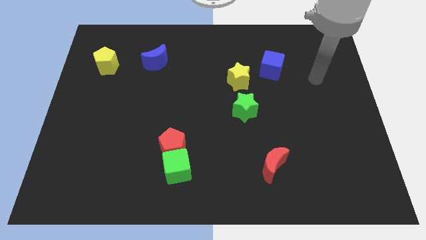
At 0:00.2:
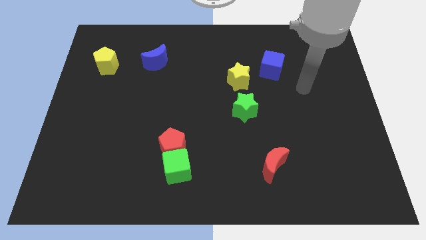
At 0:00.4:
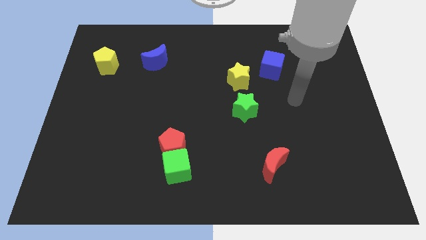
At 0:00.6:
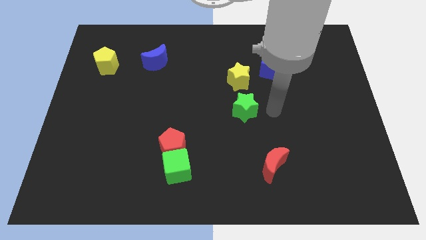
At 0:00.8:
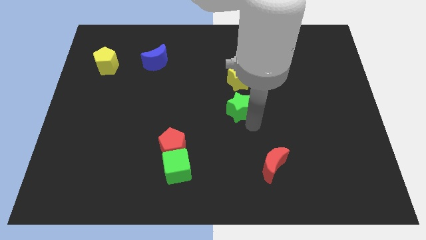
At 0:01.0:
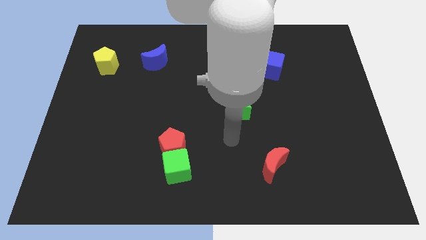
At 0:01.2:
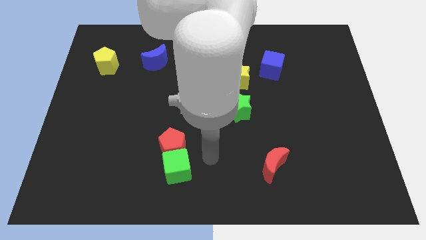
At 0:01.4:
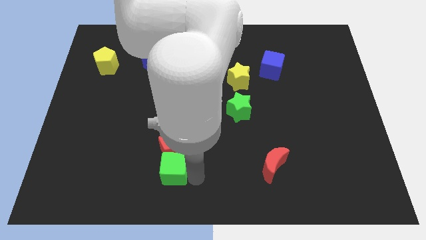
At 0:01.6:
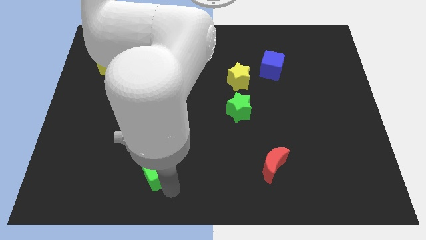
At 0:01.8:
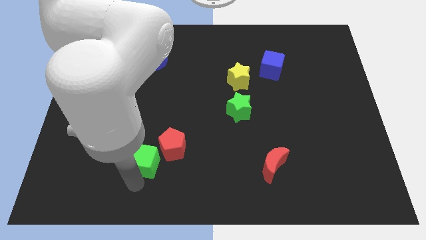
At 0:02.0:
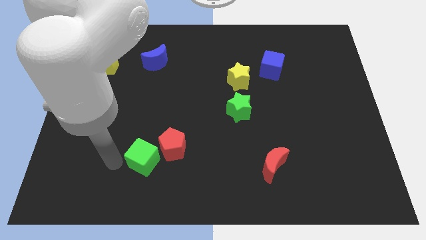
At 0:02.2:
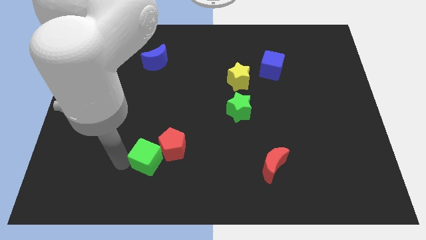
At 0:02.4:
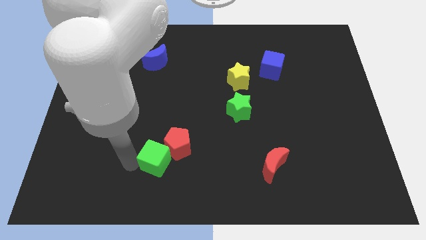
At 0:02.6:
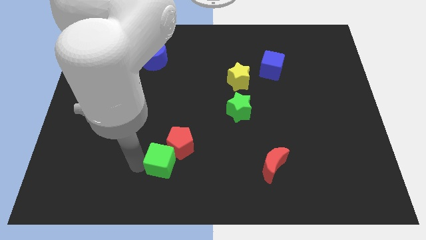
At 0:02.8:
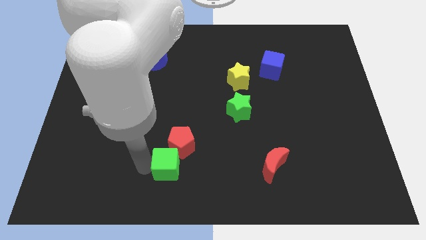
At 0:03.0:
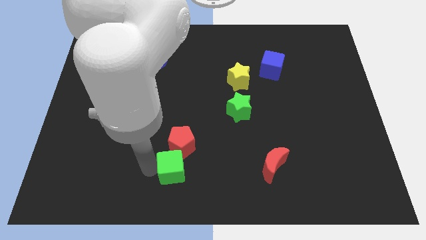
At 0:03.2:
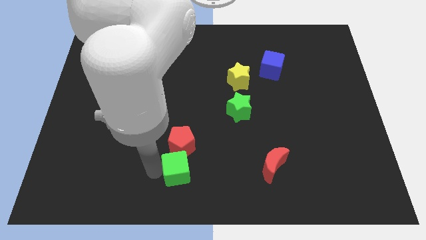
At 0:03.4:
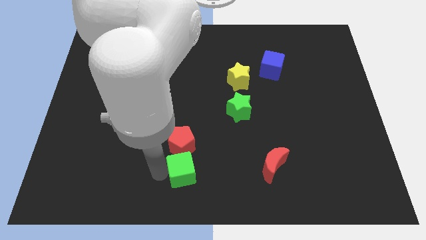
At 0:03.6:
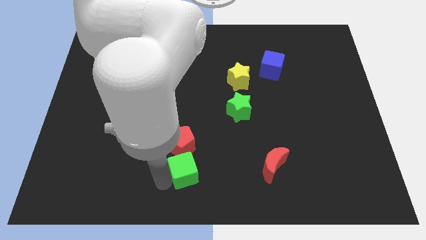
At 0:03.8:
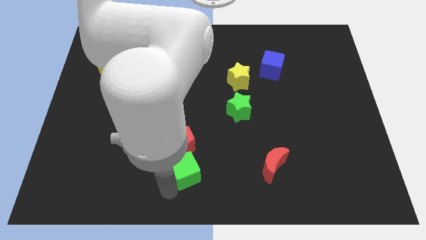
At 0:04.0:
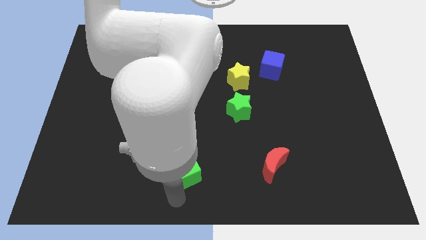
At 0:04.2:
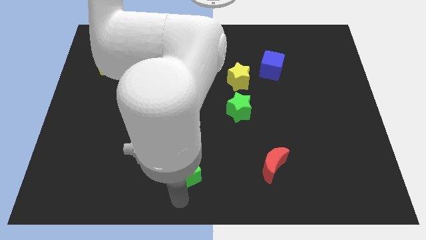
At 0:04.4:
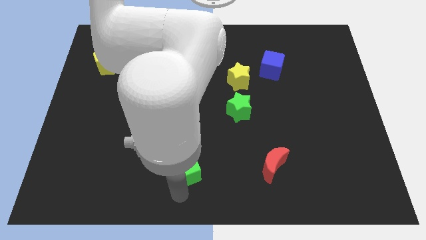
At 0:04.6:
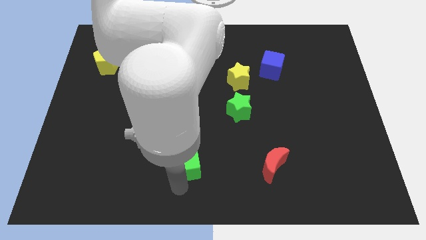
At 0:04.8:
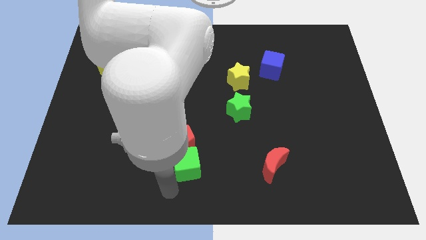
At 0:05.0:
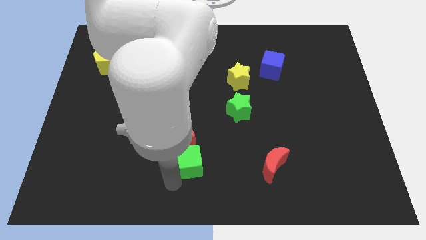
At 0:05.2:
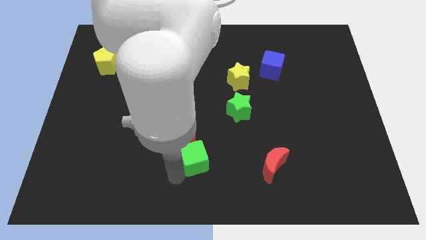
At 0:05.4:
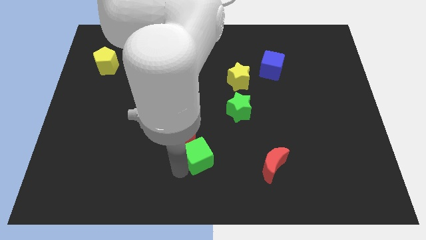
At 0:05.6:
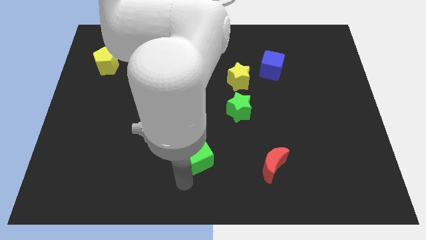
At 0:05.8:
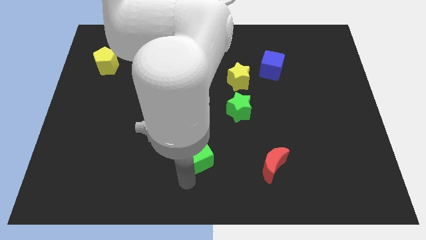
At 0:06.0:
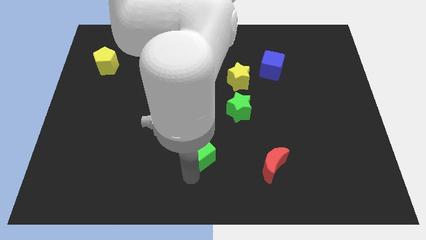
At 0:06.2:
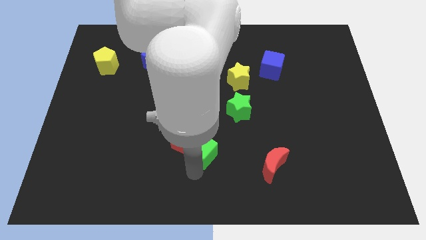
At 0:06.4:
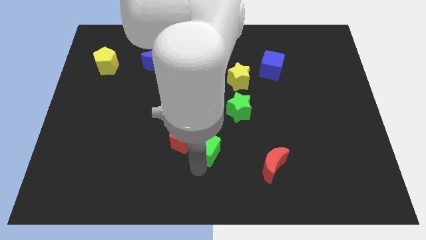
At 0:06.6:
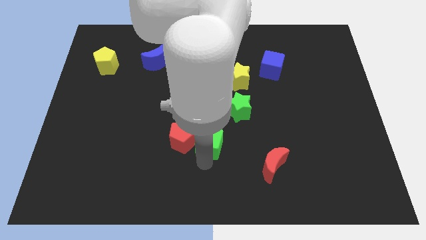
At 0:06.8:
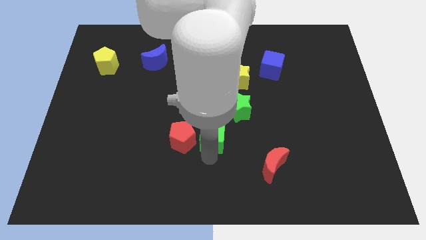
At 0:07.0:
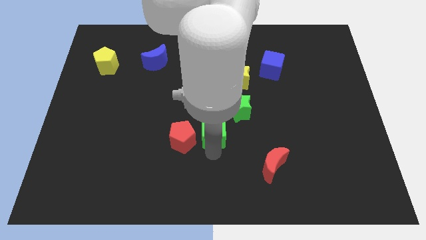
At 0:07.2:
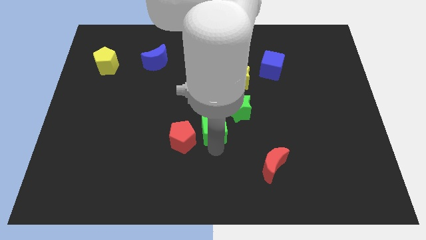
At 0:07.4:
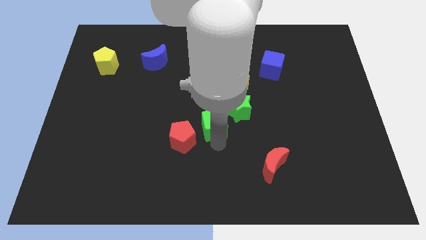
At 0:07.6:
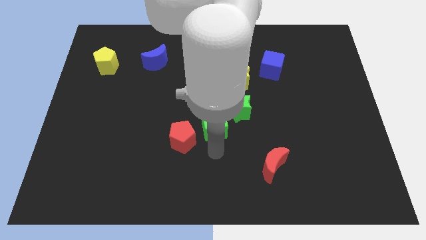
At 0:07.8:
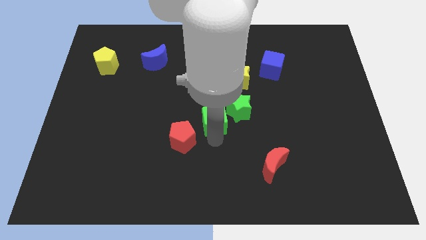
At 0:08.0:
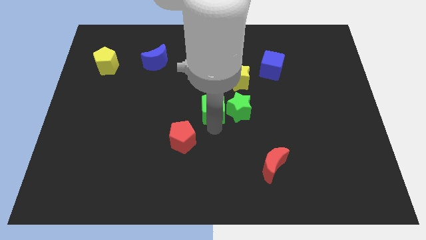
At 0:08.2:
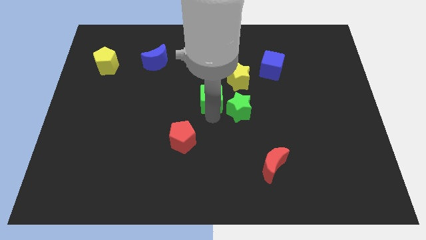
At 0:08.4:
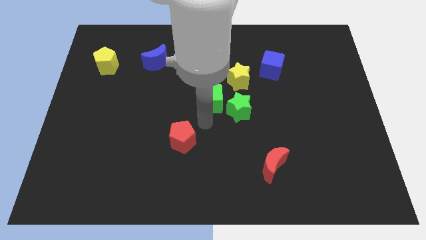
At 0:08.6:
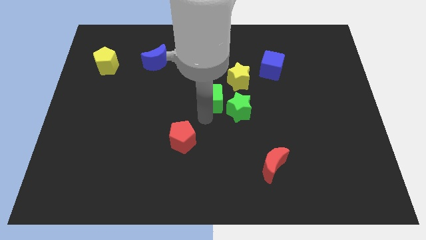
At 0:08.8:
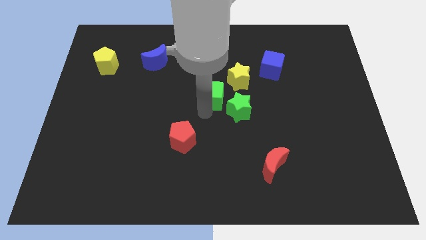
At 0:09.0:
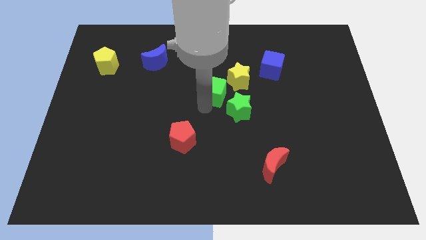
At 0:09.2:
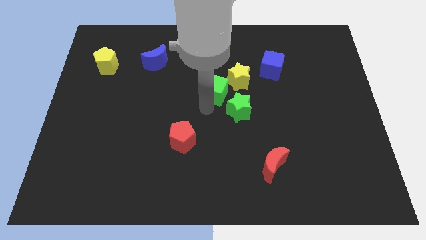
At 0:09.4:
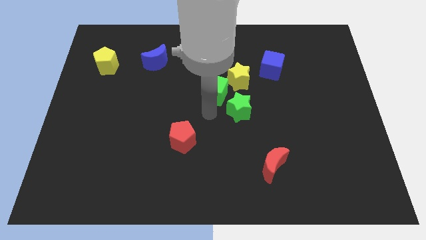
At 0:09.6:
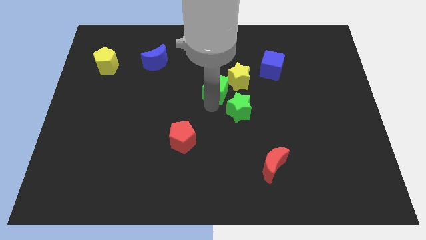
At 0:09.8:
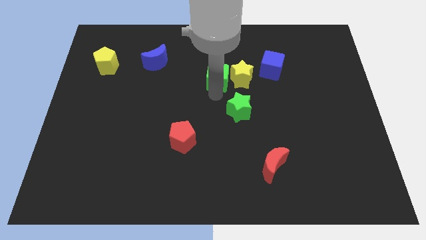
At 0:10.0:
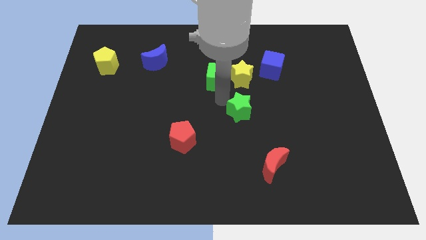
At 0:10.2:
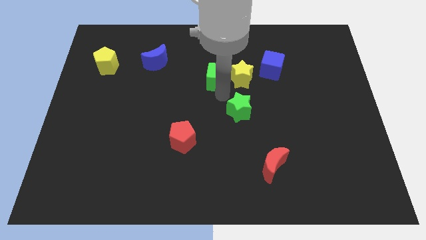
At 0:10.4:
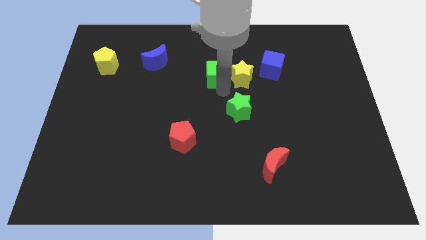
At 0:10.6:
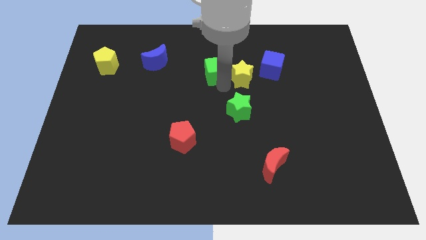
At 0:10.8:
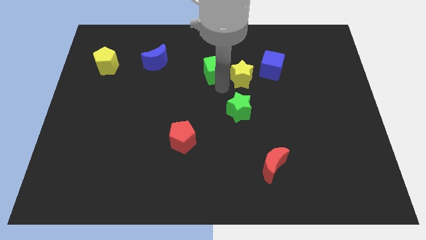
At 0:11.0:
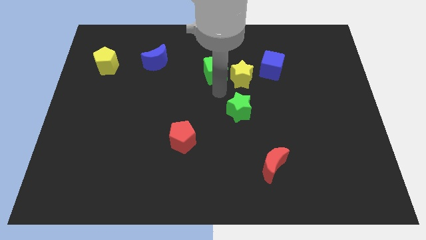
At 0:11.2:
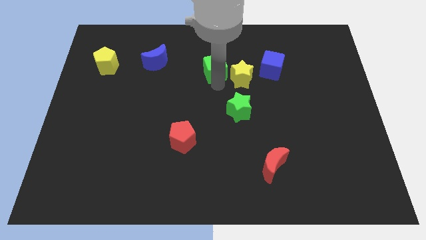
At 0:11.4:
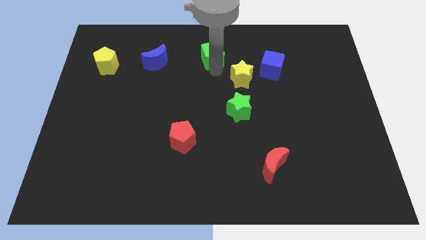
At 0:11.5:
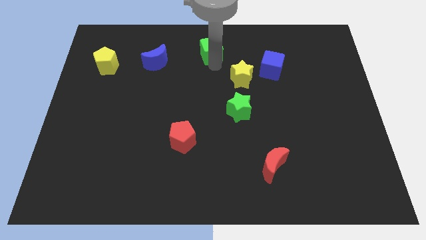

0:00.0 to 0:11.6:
put the green cube to the top side
